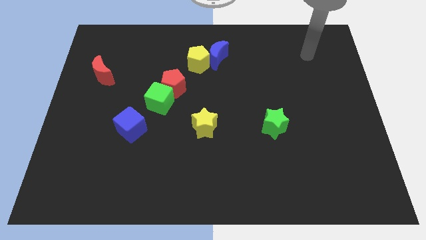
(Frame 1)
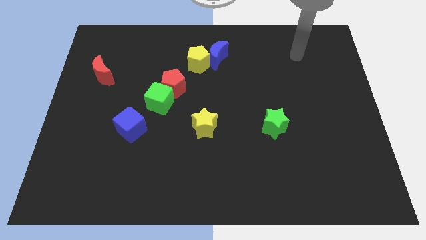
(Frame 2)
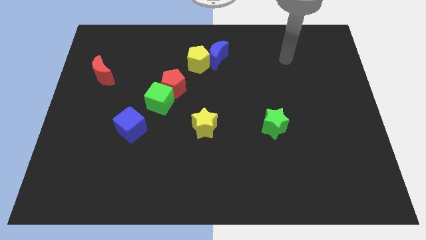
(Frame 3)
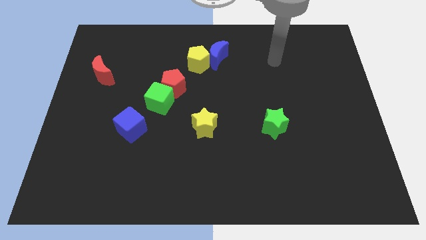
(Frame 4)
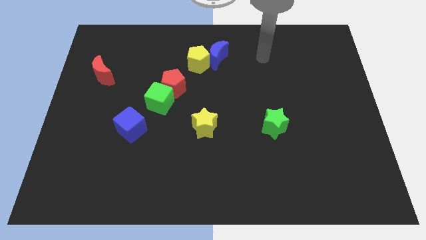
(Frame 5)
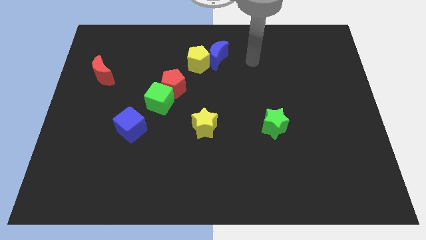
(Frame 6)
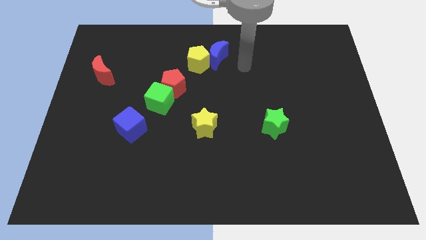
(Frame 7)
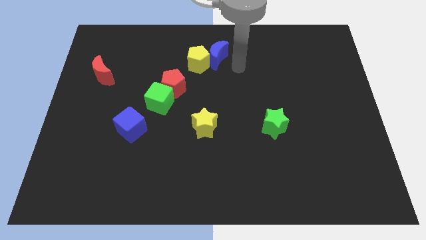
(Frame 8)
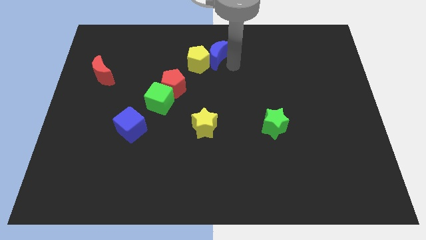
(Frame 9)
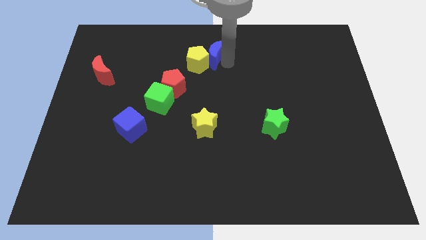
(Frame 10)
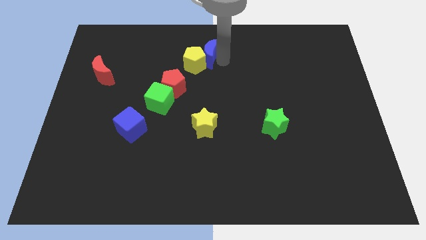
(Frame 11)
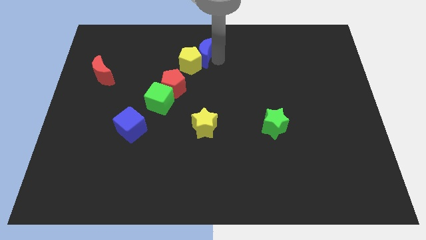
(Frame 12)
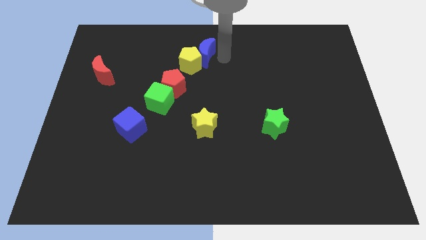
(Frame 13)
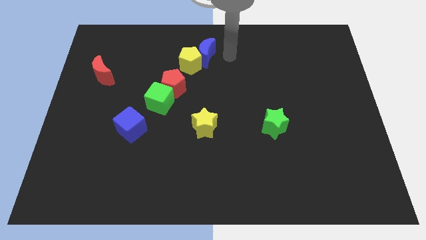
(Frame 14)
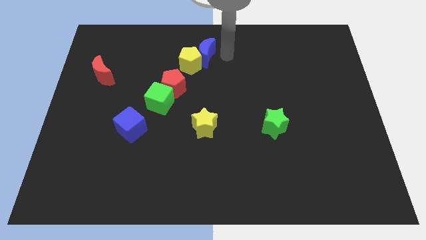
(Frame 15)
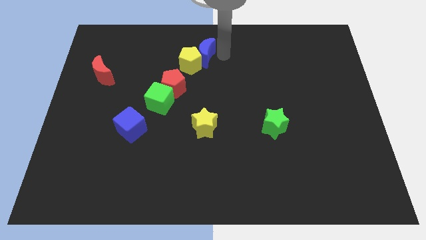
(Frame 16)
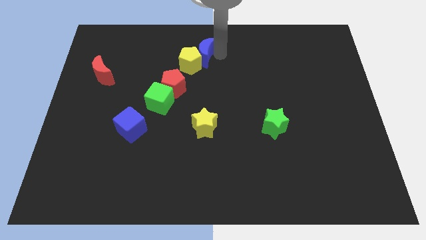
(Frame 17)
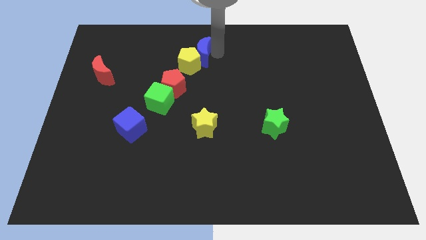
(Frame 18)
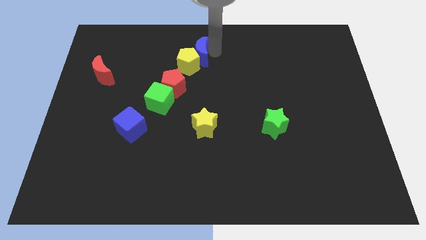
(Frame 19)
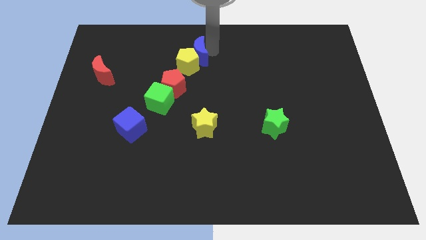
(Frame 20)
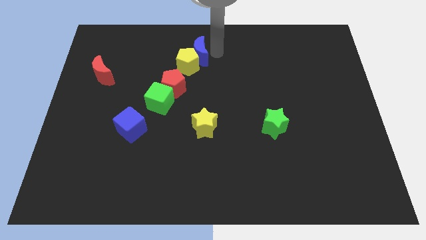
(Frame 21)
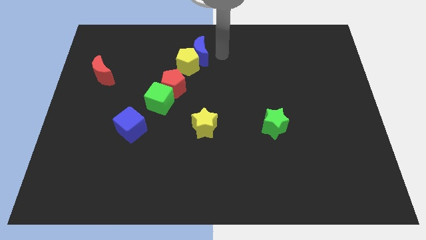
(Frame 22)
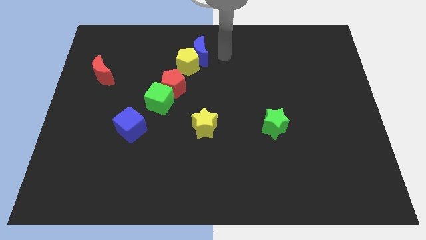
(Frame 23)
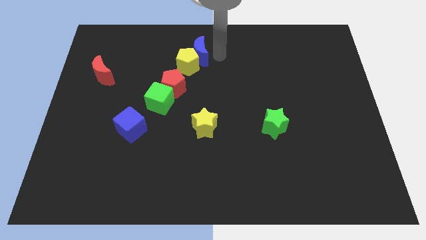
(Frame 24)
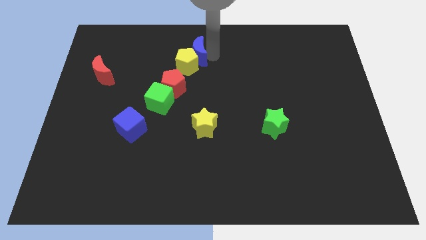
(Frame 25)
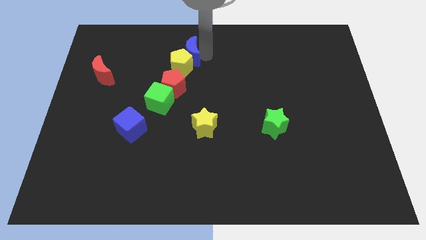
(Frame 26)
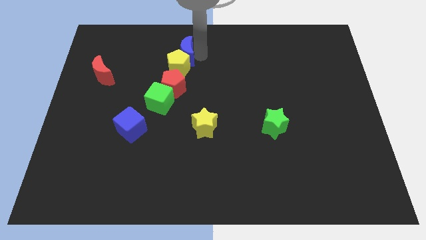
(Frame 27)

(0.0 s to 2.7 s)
slide the blue moon left slightly

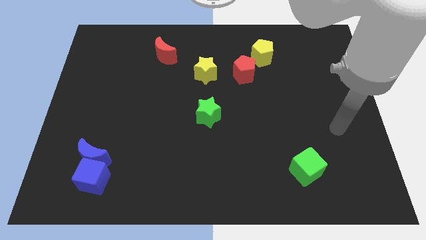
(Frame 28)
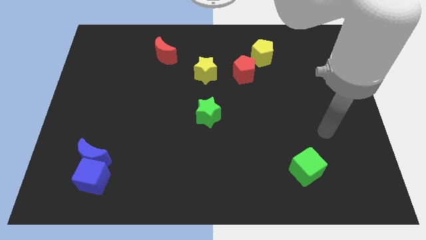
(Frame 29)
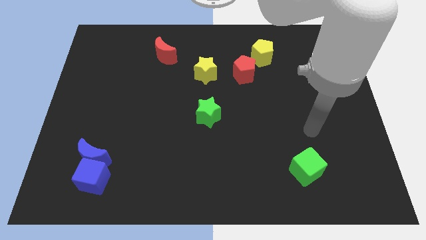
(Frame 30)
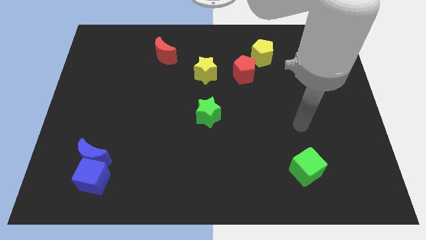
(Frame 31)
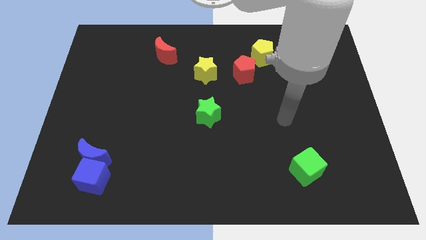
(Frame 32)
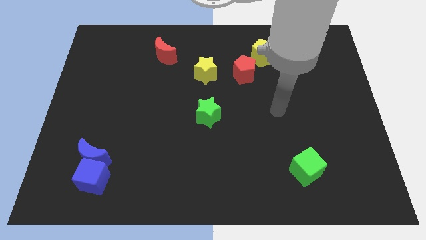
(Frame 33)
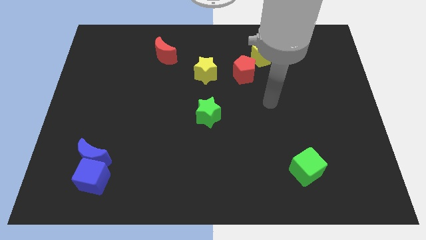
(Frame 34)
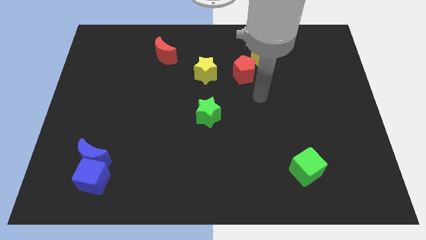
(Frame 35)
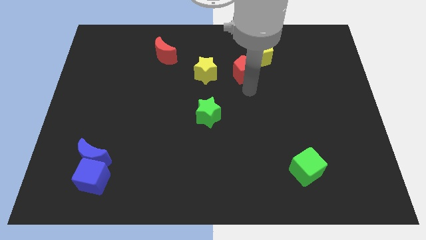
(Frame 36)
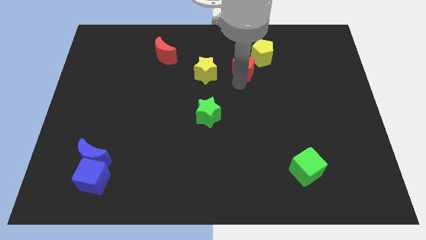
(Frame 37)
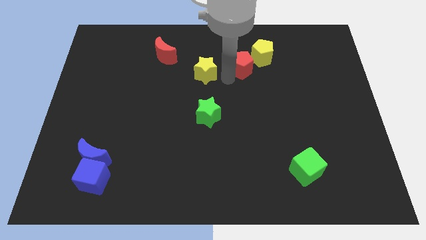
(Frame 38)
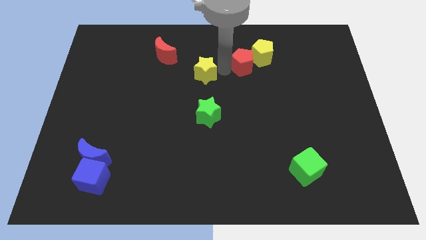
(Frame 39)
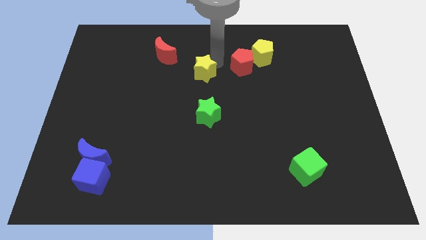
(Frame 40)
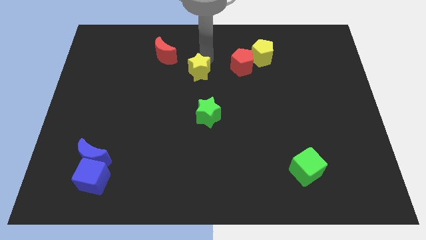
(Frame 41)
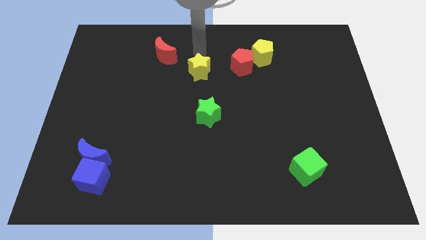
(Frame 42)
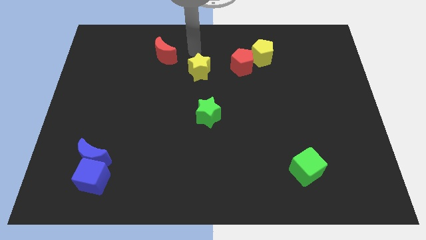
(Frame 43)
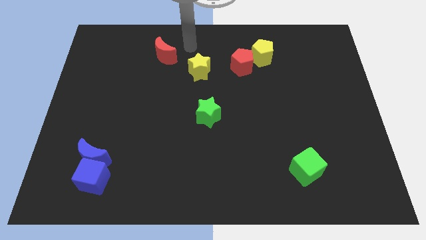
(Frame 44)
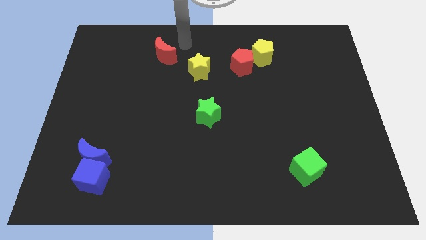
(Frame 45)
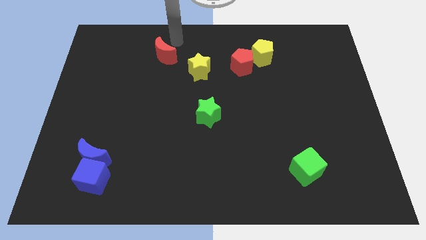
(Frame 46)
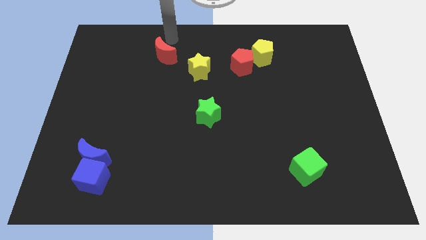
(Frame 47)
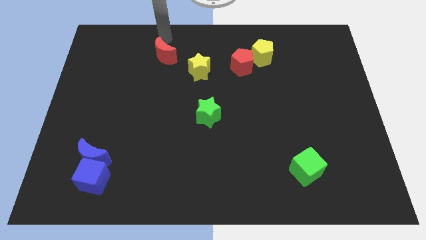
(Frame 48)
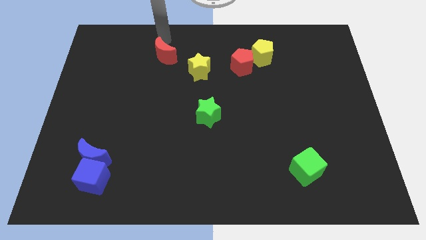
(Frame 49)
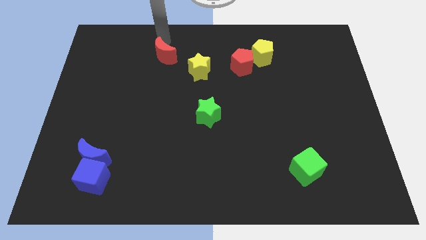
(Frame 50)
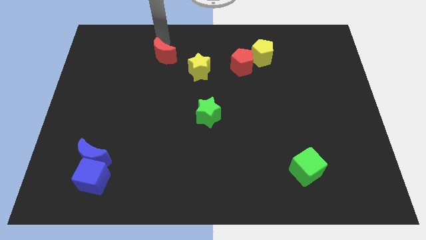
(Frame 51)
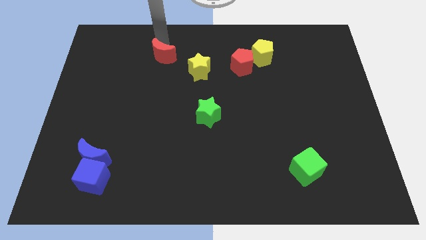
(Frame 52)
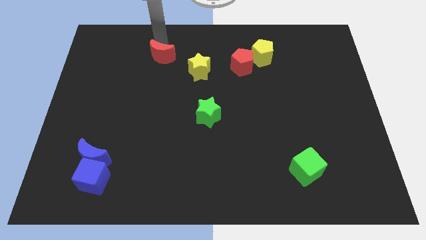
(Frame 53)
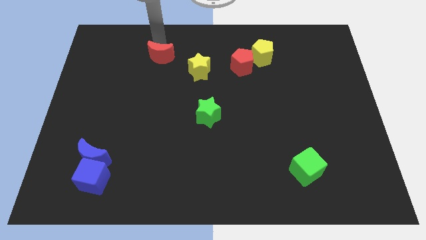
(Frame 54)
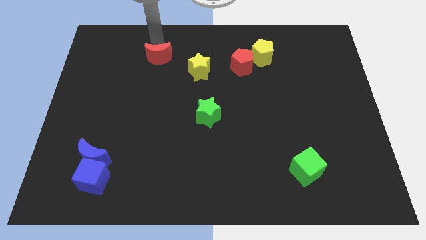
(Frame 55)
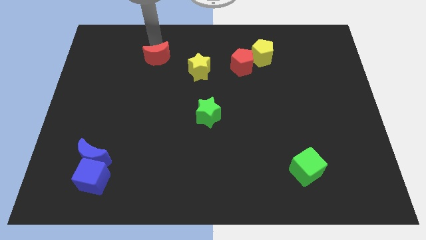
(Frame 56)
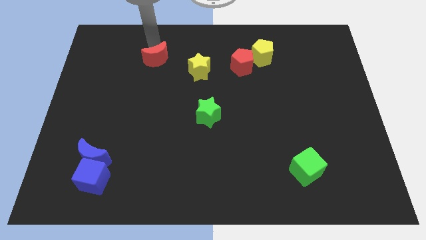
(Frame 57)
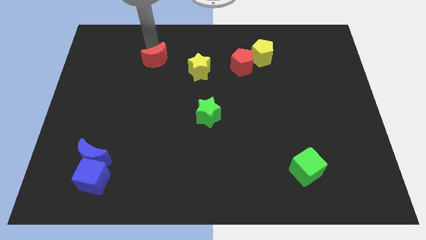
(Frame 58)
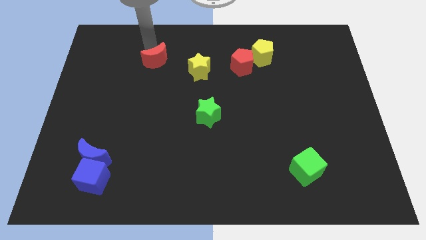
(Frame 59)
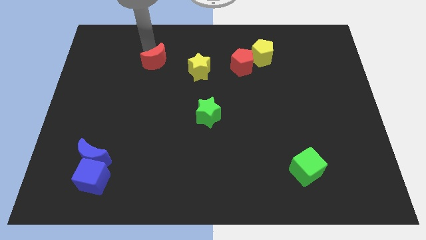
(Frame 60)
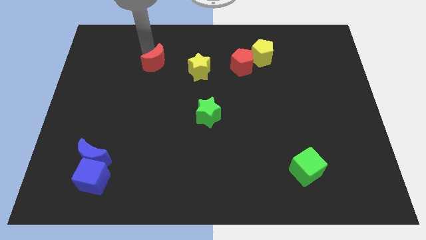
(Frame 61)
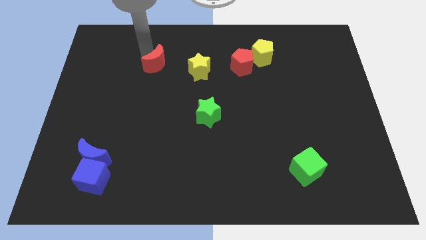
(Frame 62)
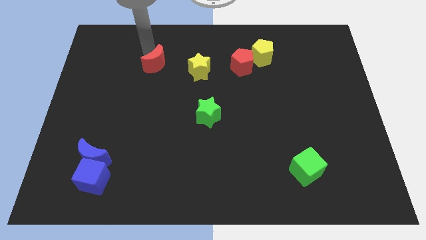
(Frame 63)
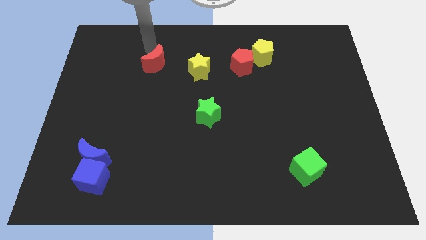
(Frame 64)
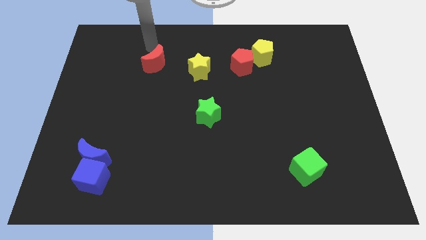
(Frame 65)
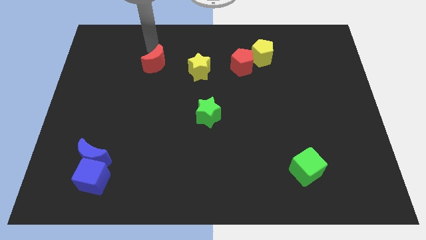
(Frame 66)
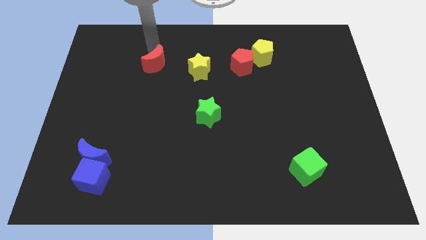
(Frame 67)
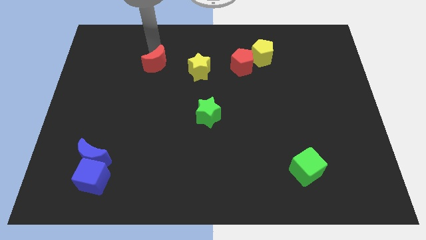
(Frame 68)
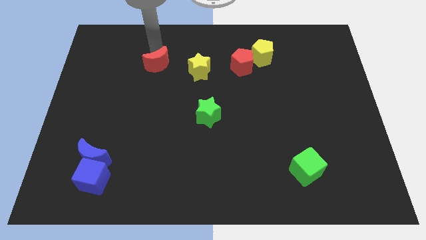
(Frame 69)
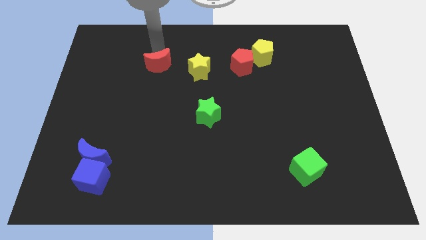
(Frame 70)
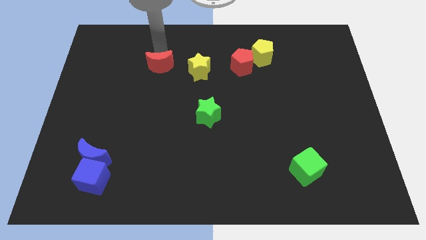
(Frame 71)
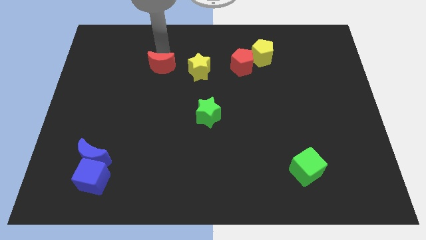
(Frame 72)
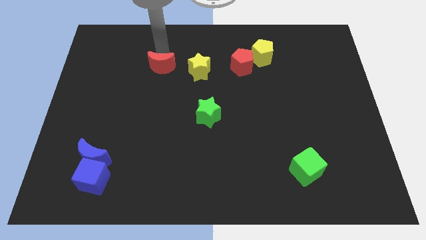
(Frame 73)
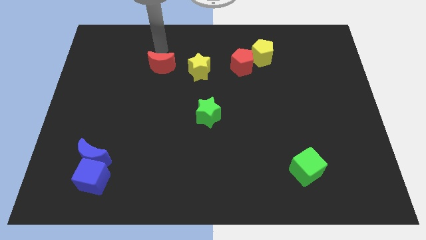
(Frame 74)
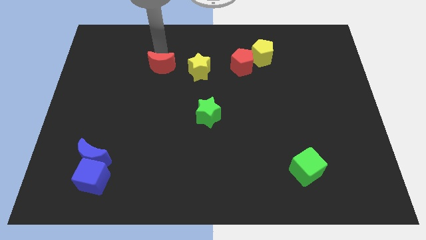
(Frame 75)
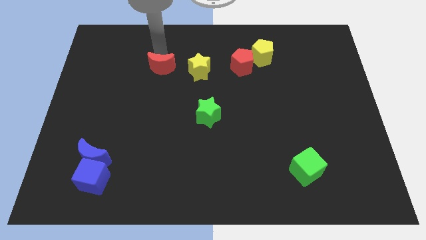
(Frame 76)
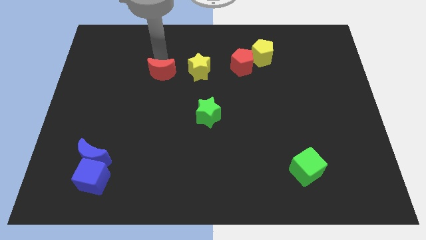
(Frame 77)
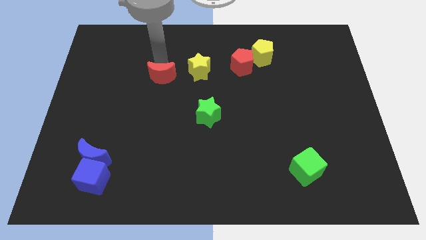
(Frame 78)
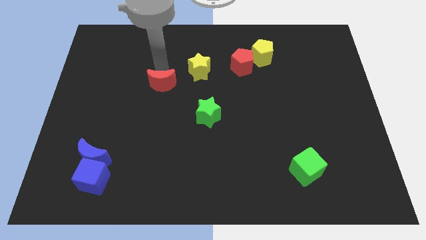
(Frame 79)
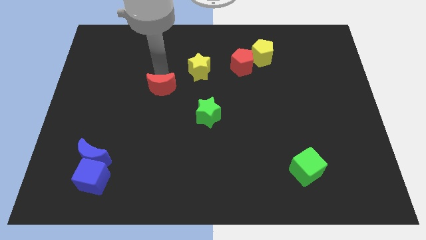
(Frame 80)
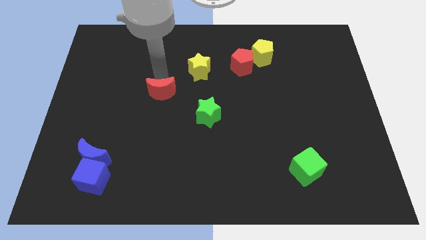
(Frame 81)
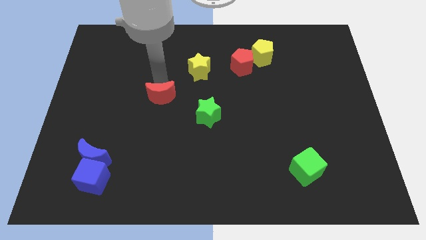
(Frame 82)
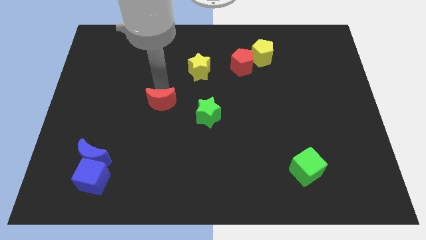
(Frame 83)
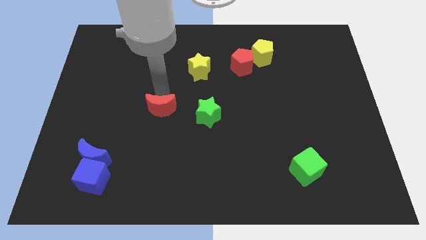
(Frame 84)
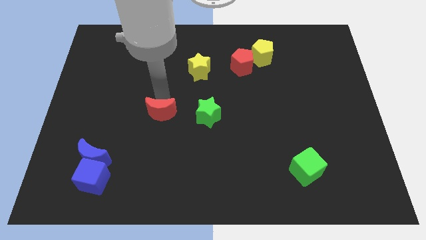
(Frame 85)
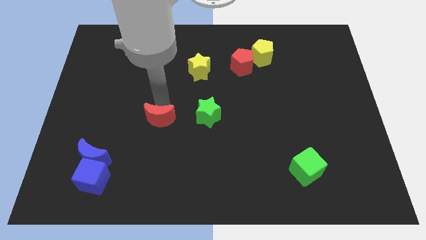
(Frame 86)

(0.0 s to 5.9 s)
slide the red moon downwards
